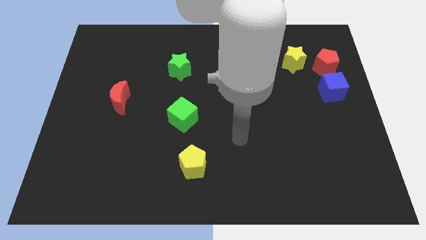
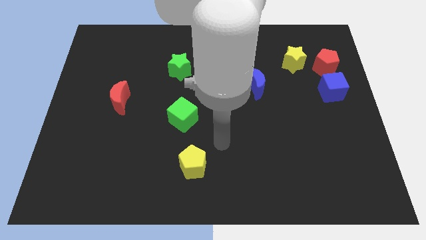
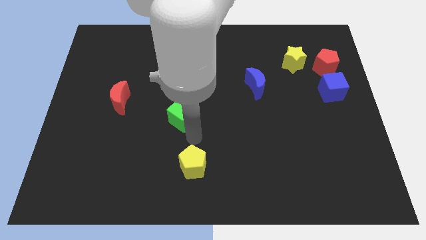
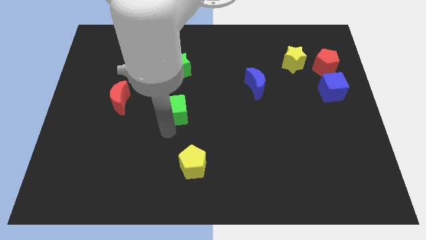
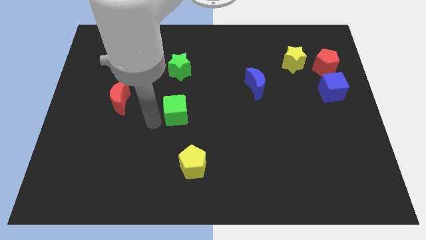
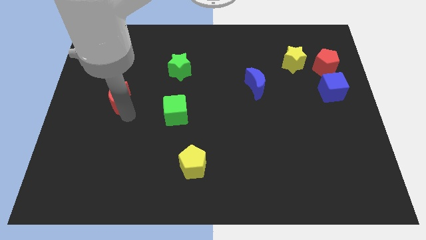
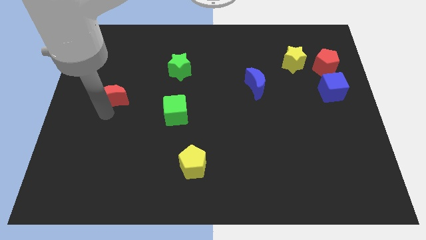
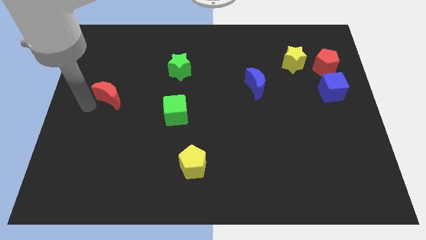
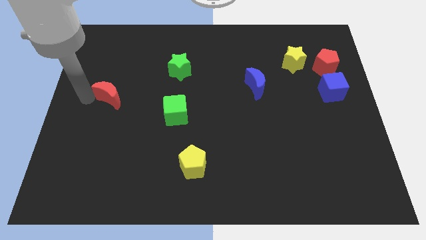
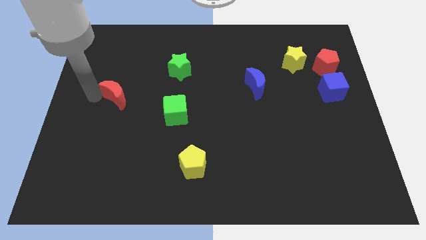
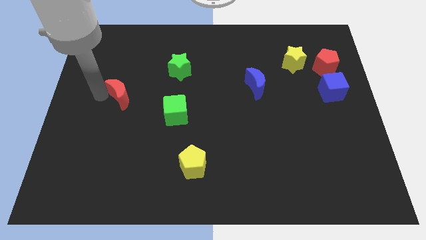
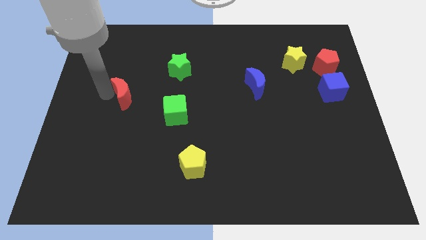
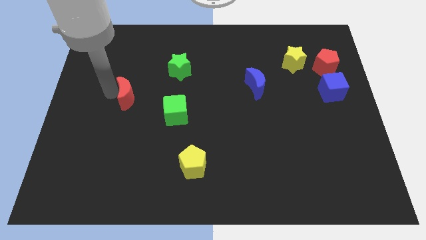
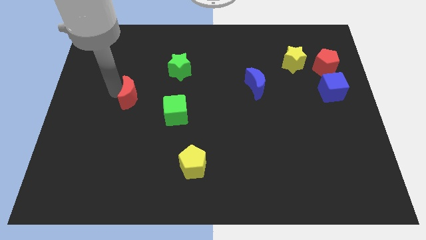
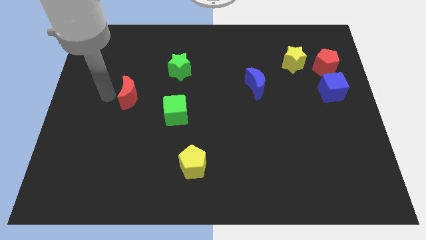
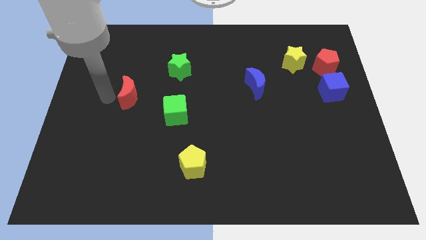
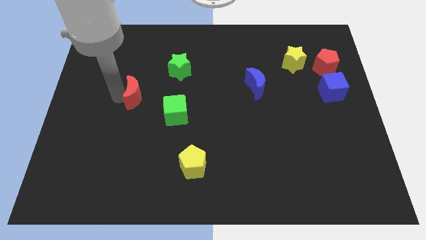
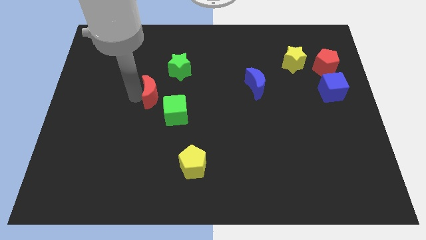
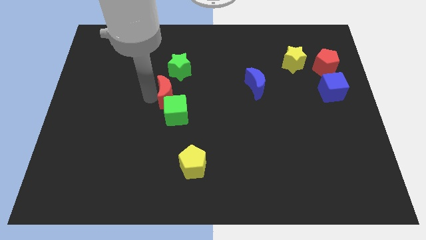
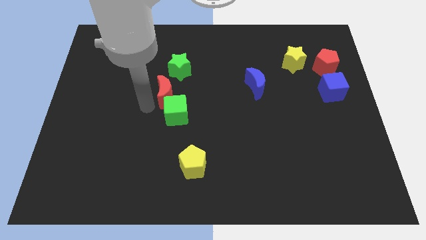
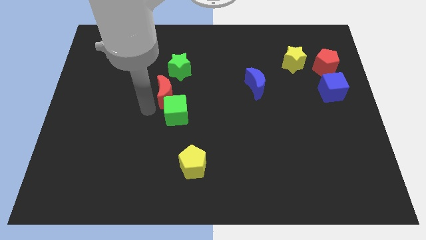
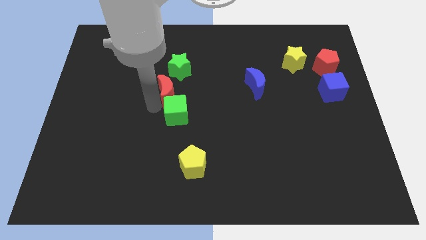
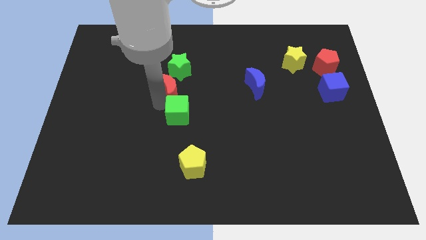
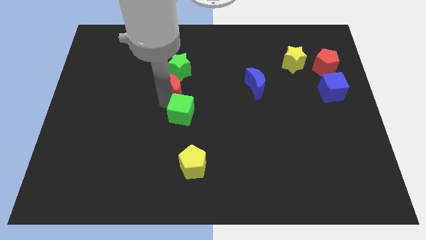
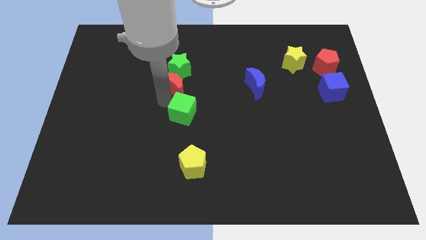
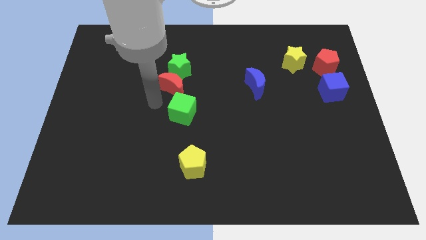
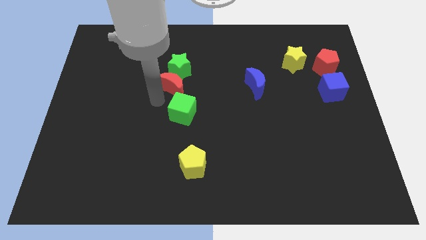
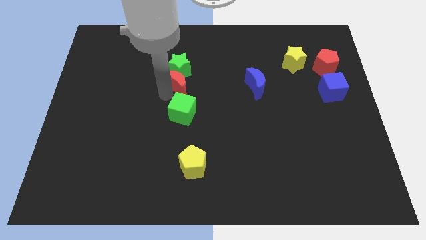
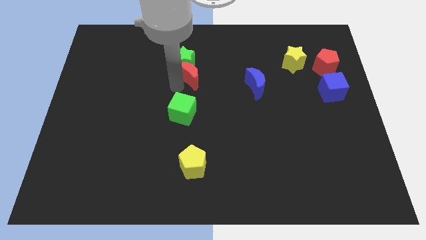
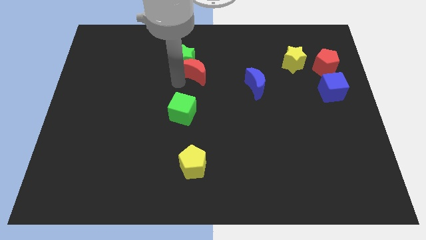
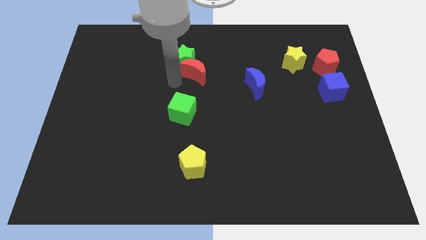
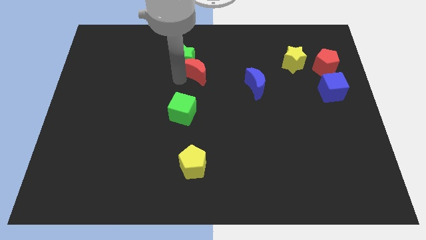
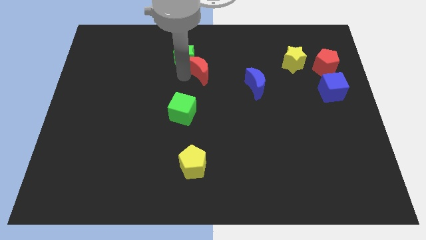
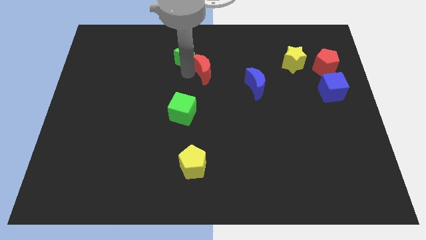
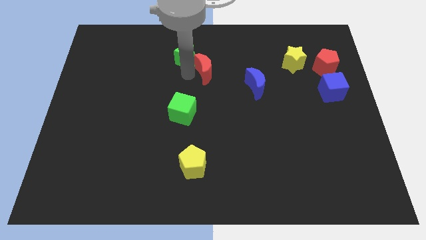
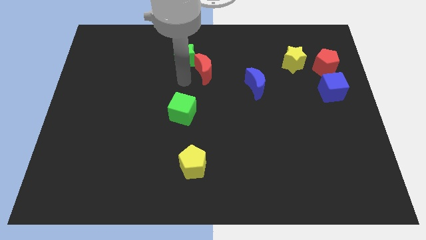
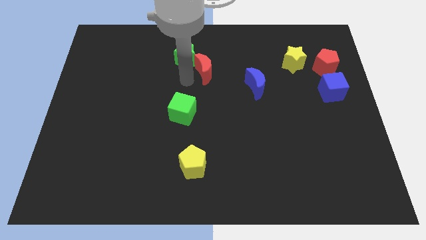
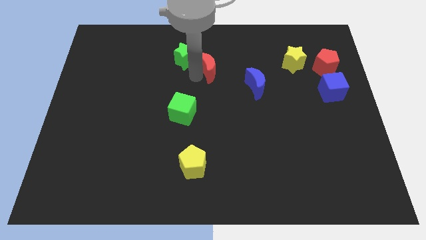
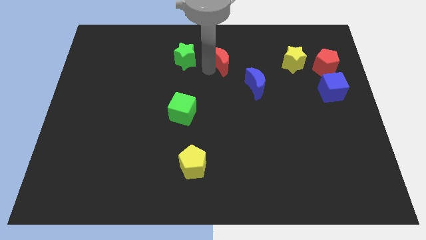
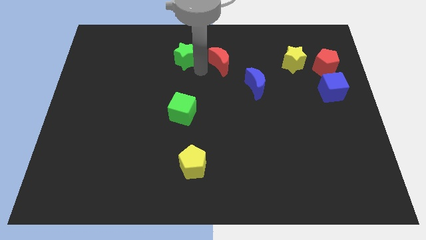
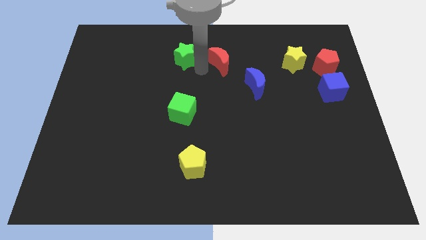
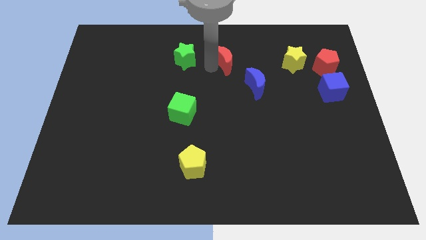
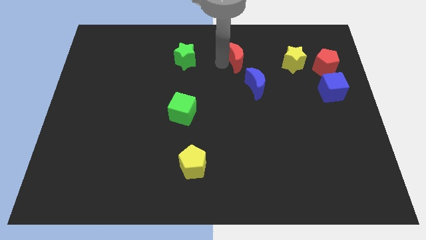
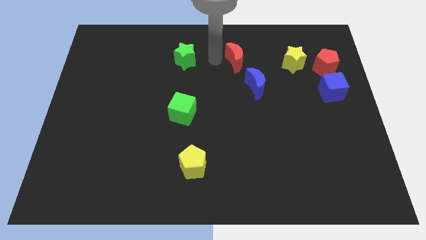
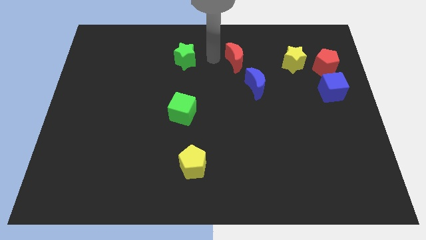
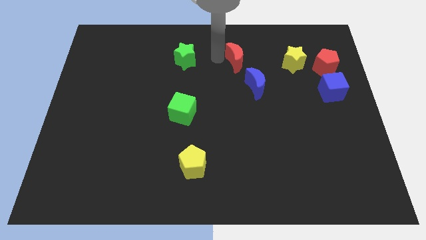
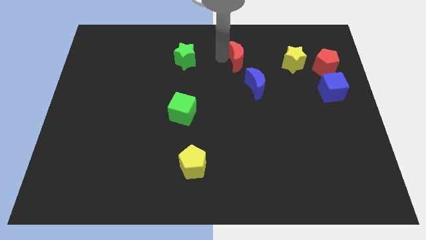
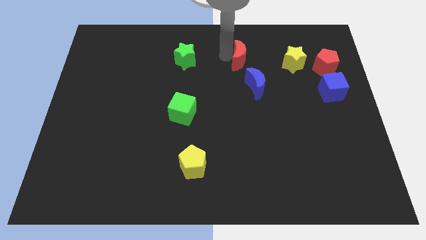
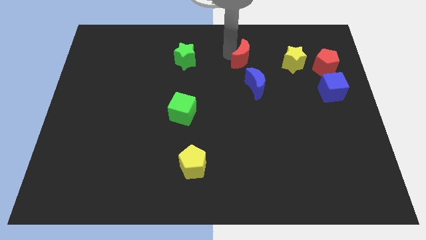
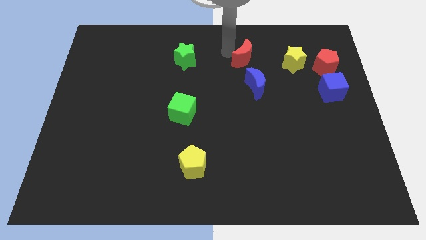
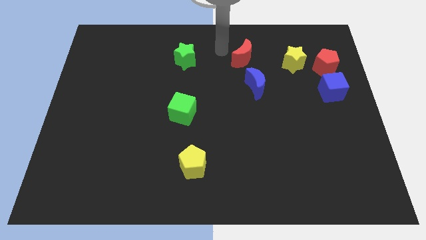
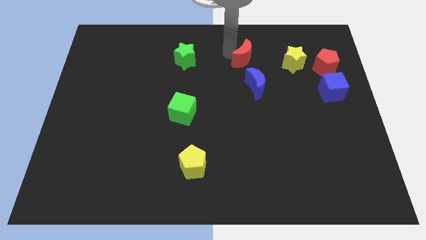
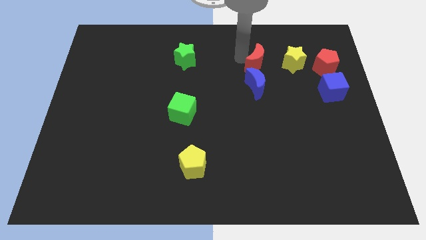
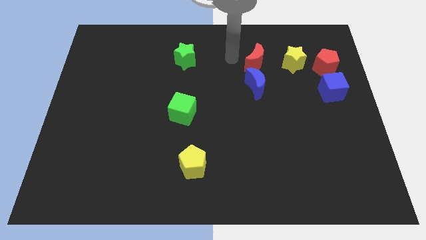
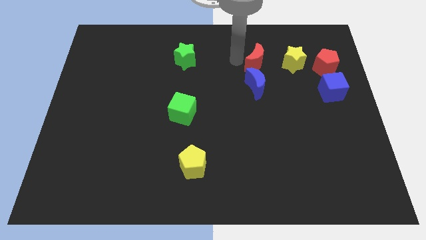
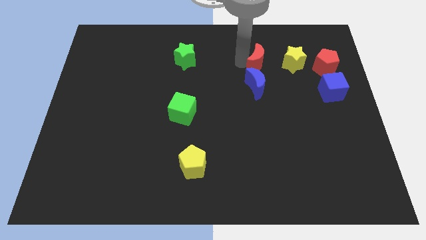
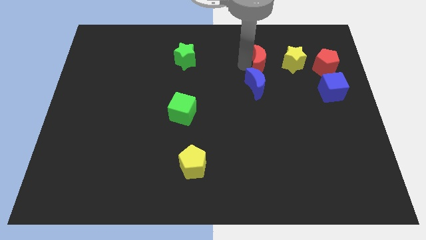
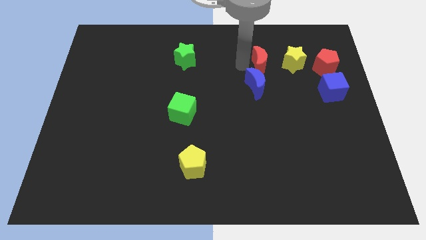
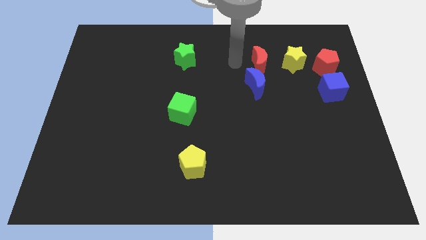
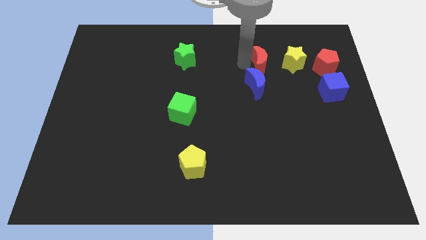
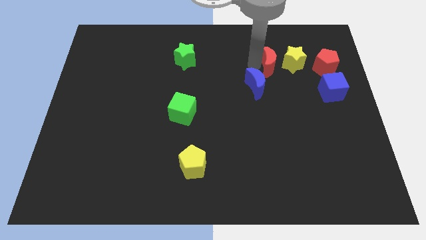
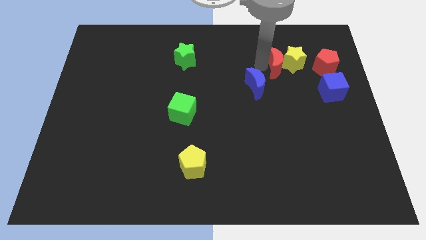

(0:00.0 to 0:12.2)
push the red moon towards the yellow star

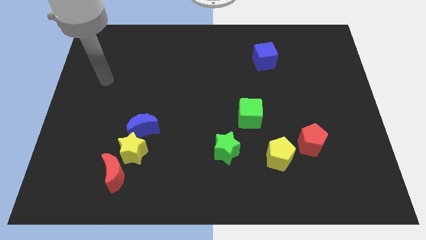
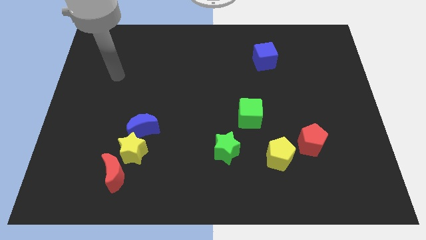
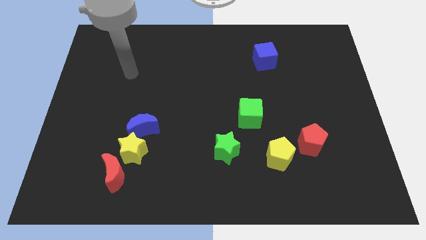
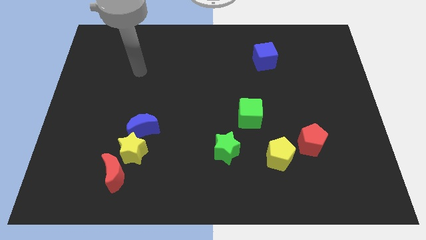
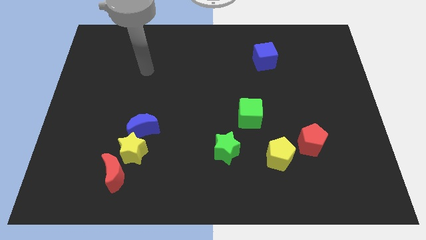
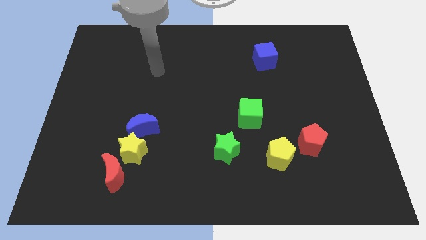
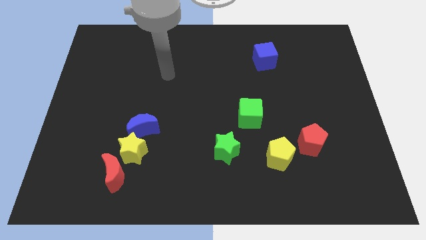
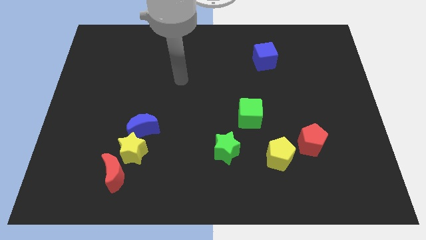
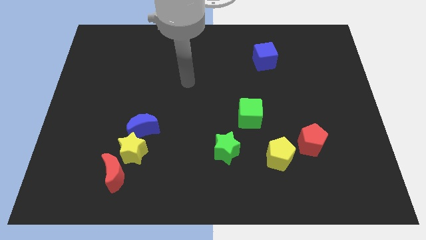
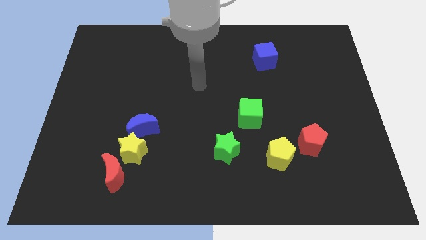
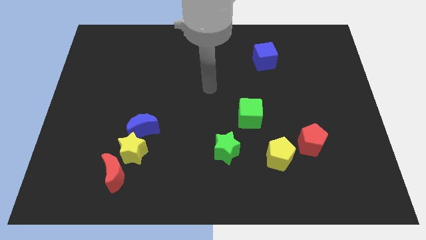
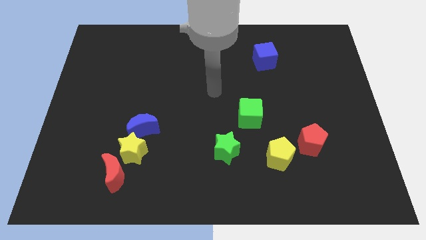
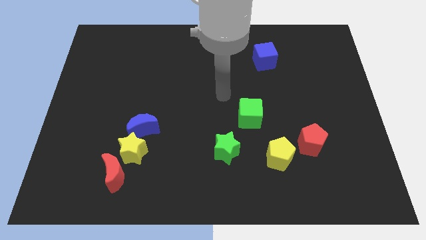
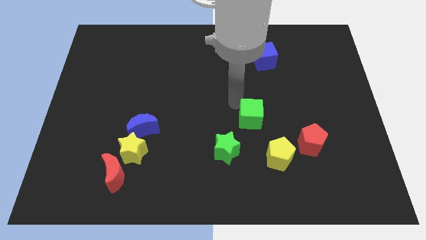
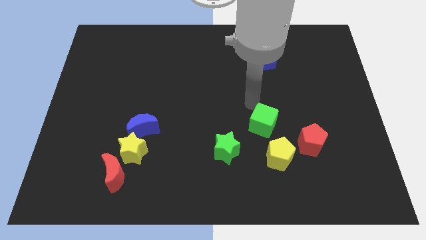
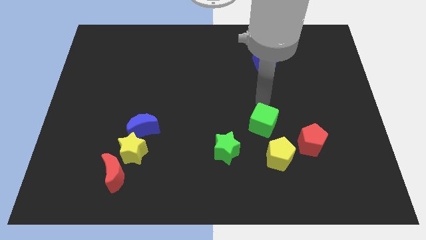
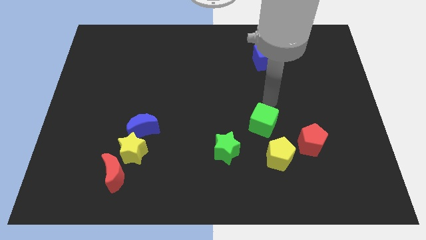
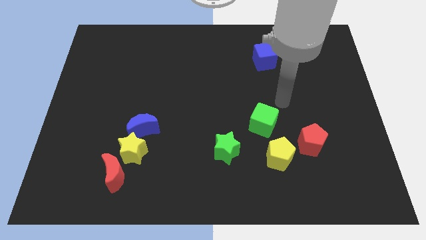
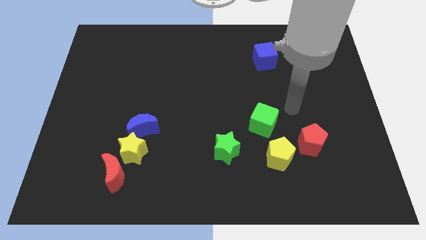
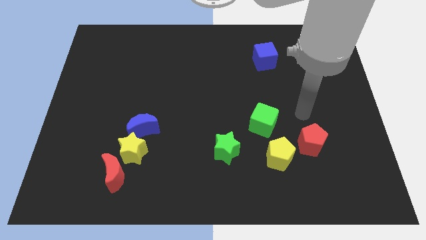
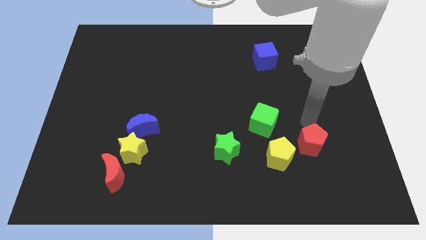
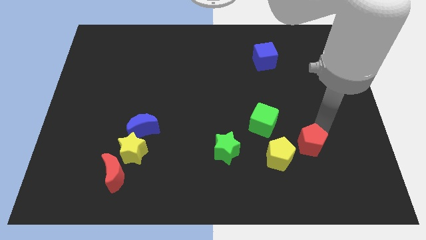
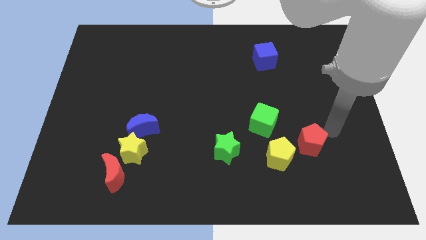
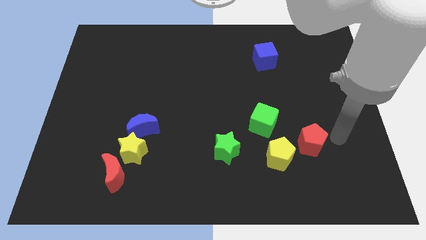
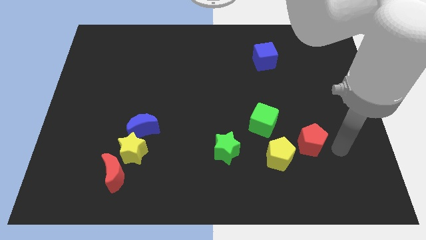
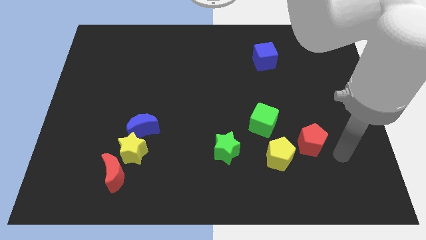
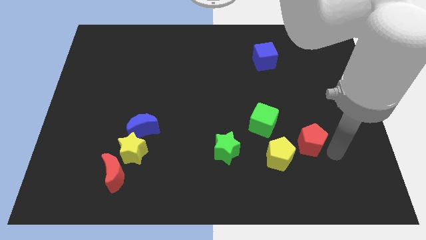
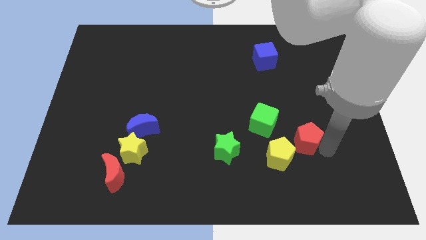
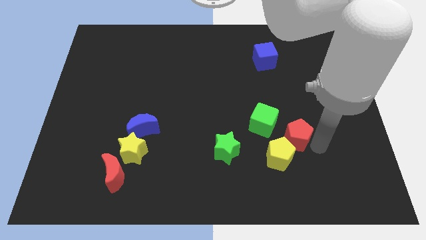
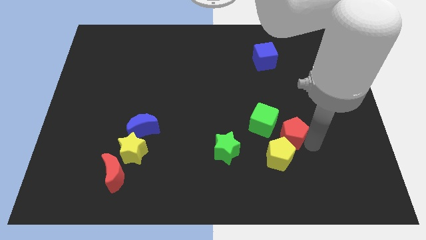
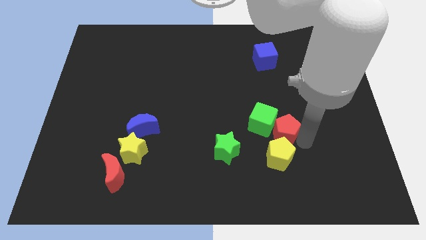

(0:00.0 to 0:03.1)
push the red pentagon to the green cube
